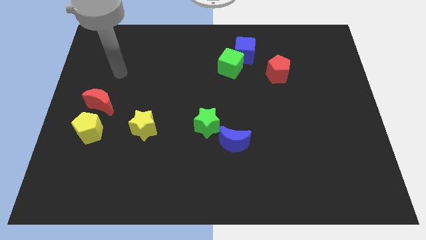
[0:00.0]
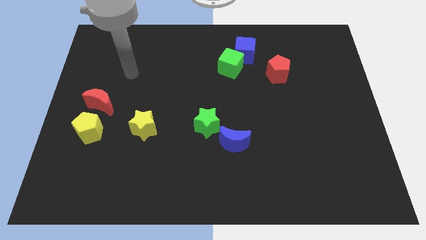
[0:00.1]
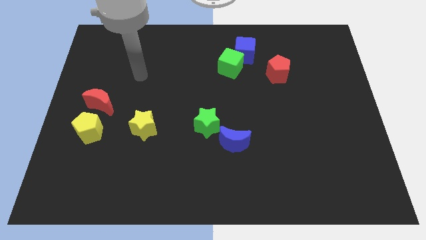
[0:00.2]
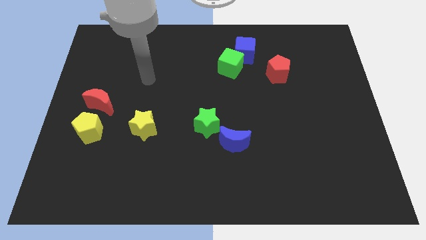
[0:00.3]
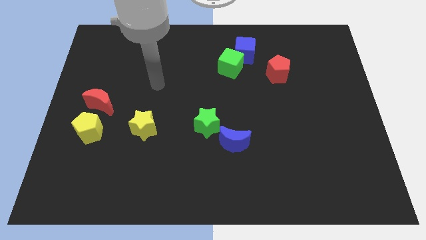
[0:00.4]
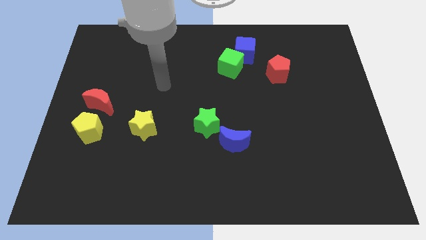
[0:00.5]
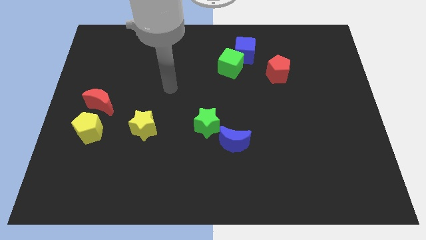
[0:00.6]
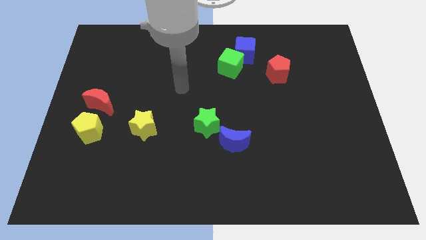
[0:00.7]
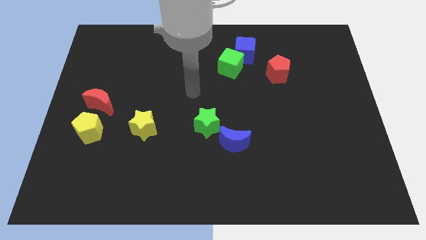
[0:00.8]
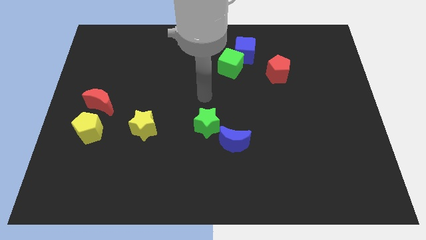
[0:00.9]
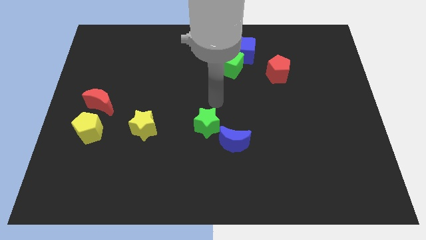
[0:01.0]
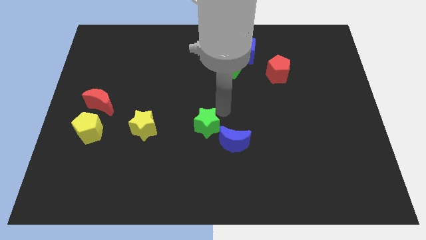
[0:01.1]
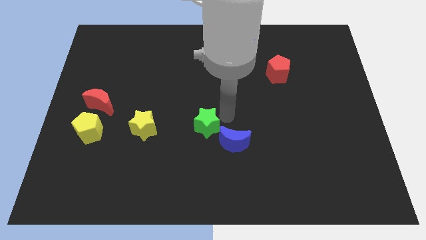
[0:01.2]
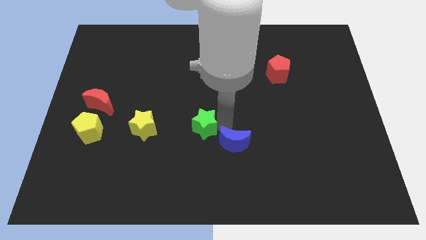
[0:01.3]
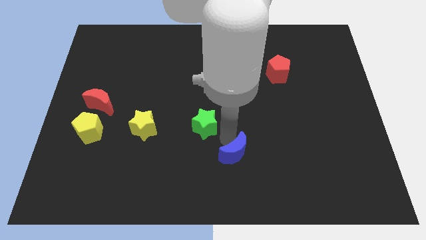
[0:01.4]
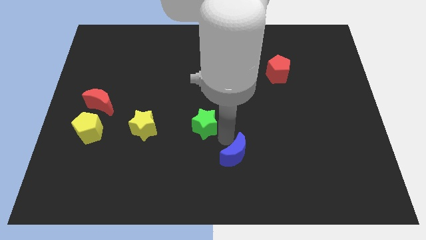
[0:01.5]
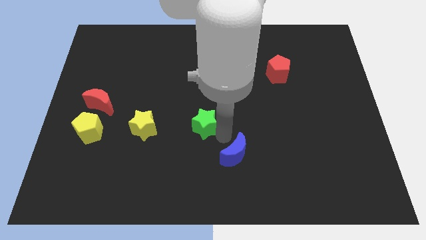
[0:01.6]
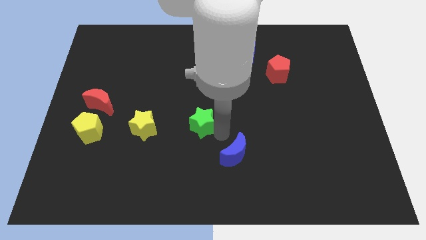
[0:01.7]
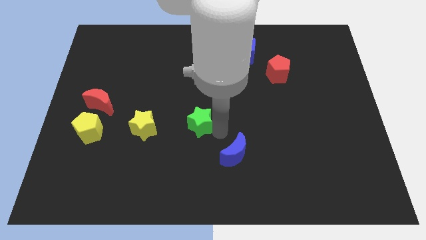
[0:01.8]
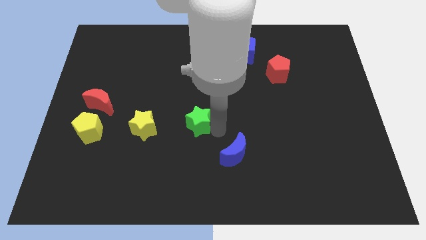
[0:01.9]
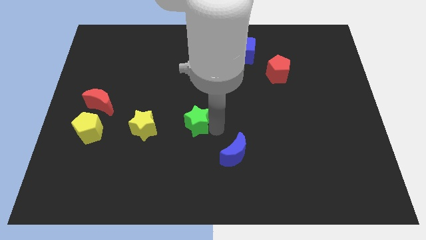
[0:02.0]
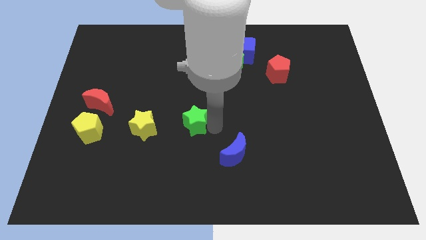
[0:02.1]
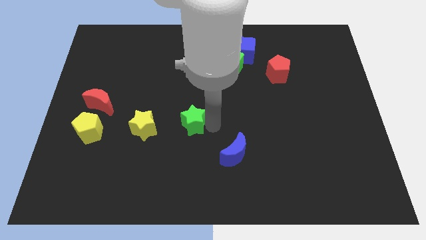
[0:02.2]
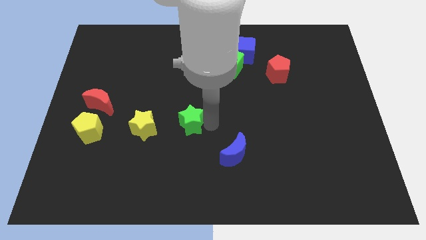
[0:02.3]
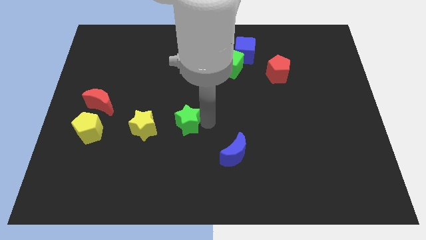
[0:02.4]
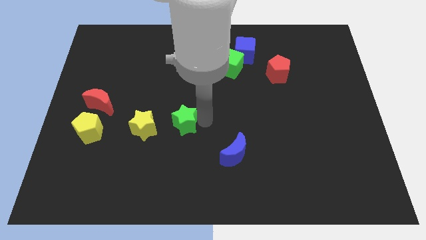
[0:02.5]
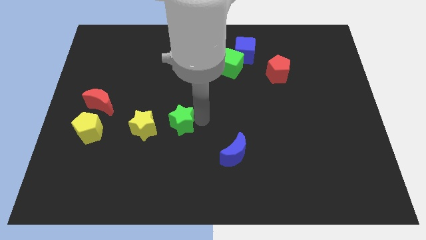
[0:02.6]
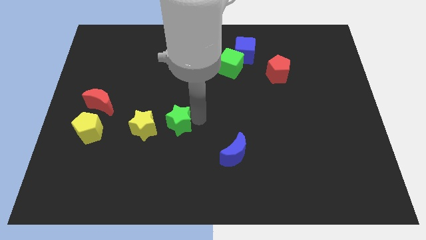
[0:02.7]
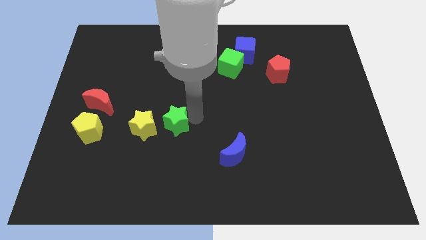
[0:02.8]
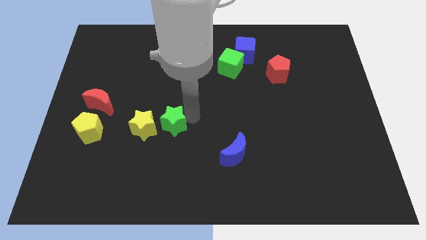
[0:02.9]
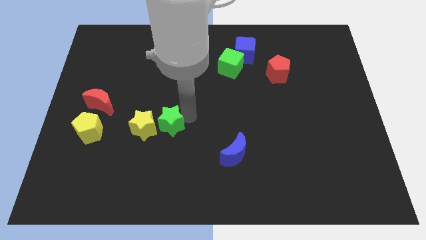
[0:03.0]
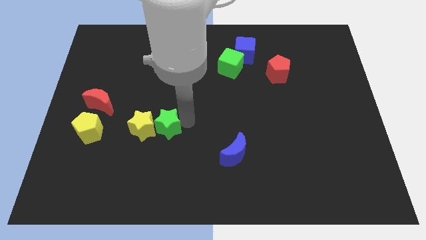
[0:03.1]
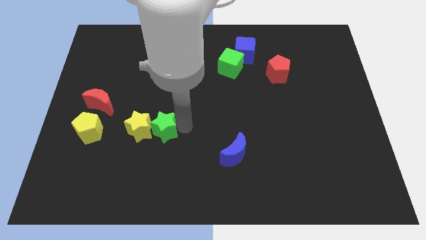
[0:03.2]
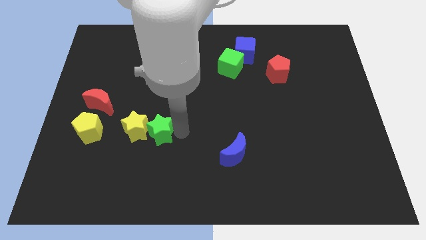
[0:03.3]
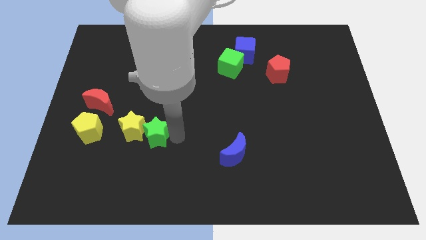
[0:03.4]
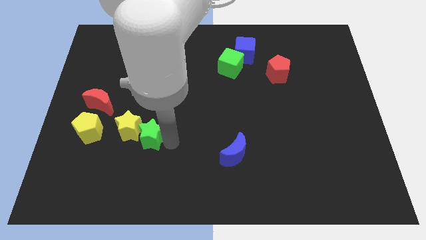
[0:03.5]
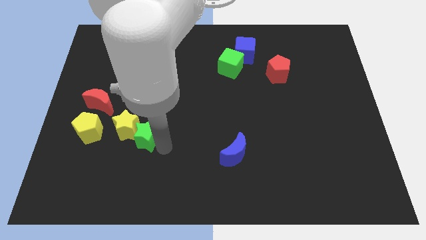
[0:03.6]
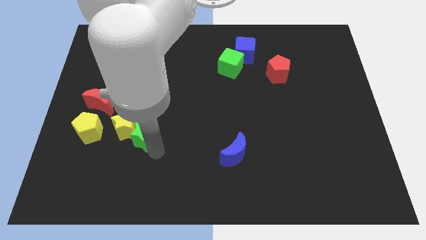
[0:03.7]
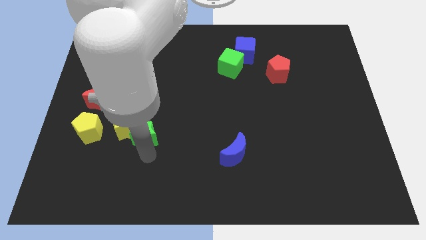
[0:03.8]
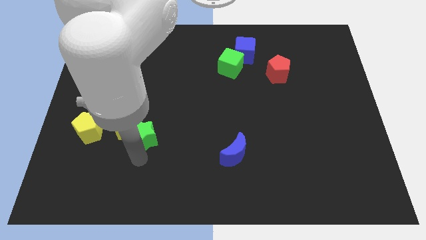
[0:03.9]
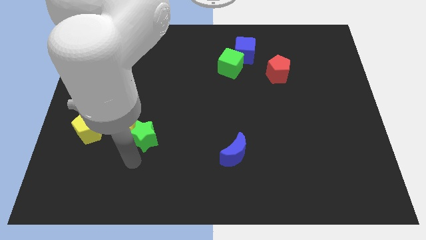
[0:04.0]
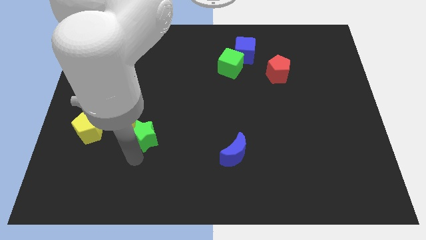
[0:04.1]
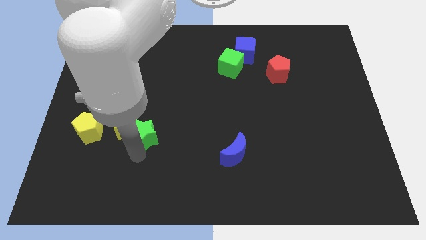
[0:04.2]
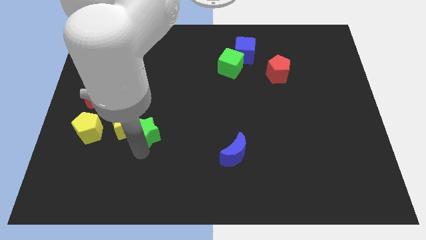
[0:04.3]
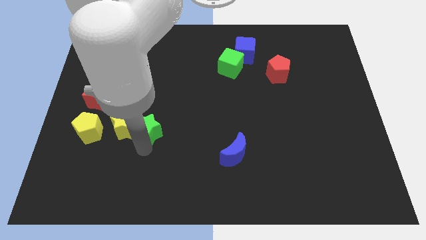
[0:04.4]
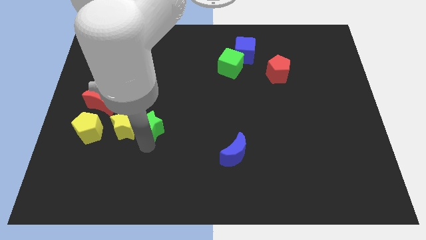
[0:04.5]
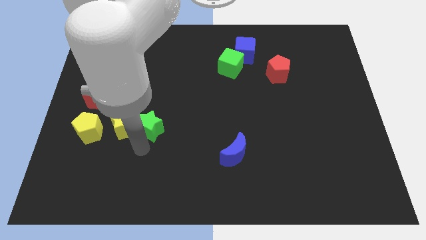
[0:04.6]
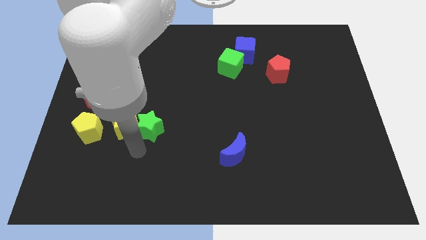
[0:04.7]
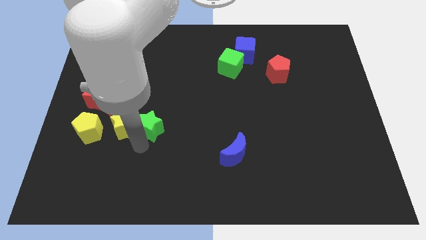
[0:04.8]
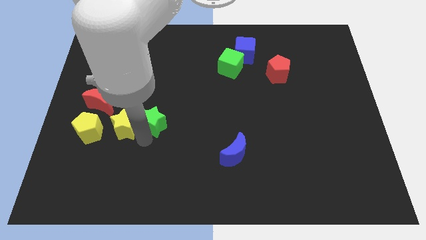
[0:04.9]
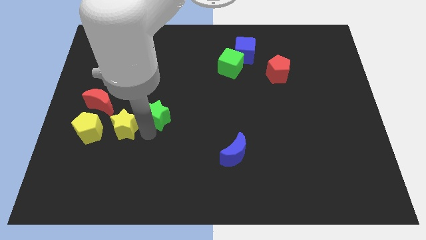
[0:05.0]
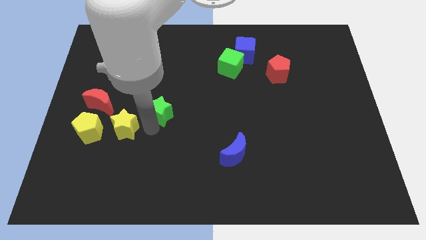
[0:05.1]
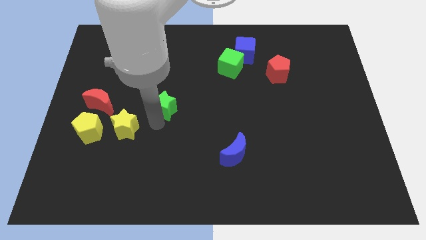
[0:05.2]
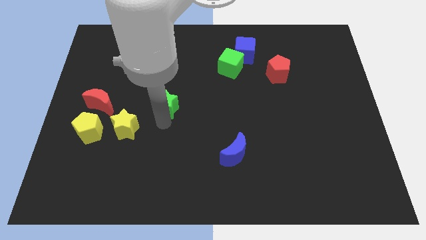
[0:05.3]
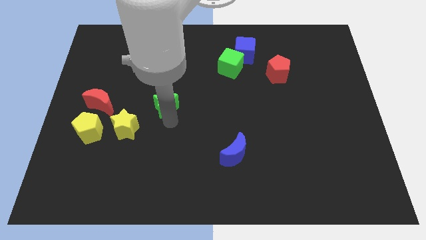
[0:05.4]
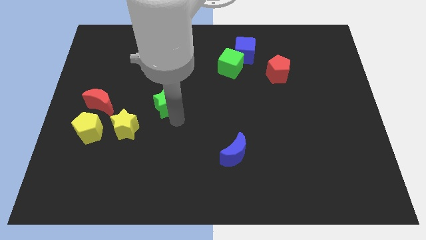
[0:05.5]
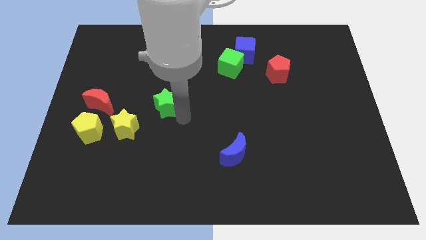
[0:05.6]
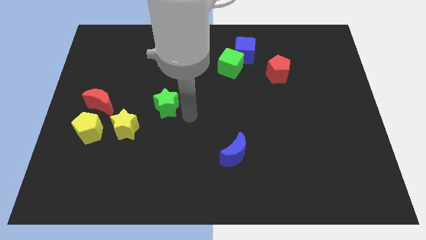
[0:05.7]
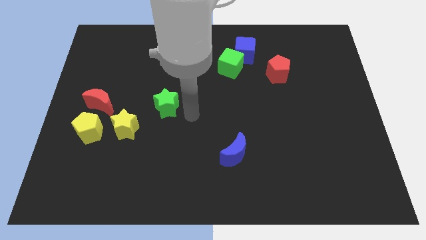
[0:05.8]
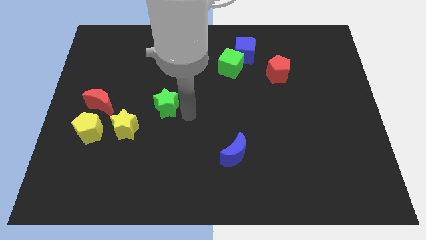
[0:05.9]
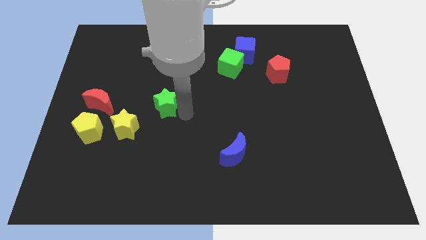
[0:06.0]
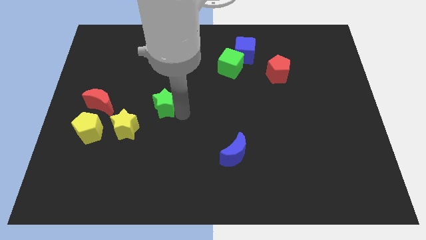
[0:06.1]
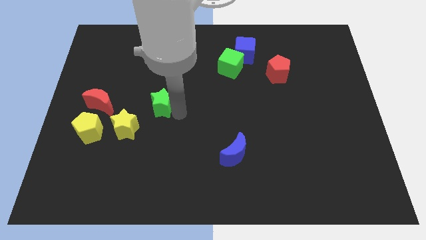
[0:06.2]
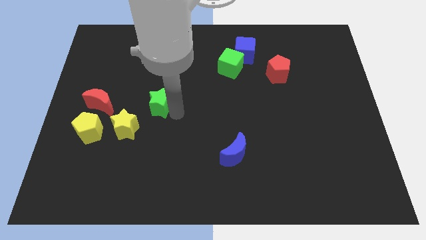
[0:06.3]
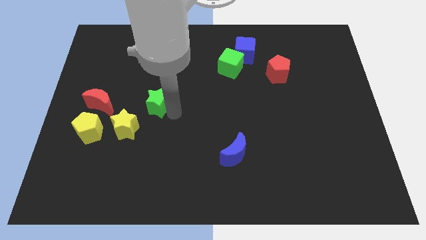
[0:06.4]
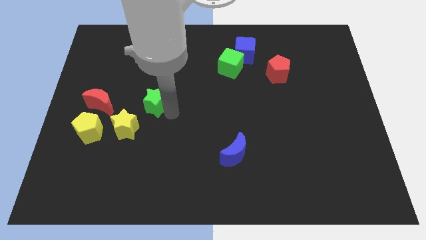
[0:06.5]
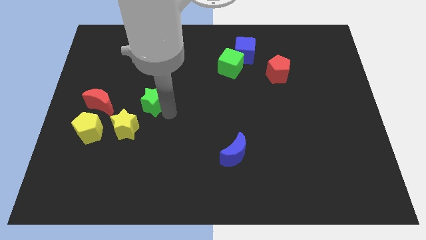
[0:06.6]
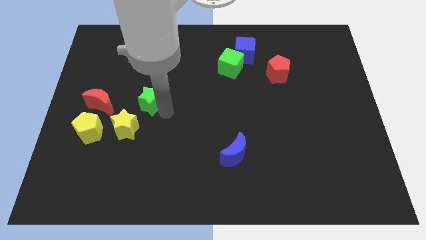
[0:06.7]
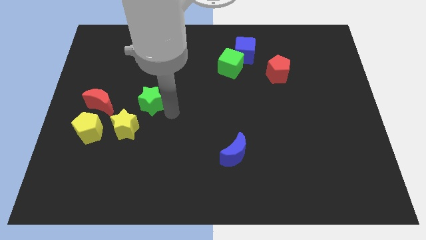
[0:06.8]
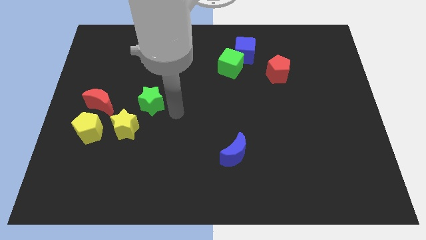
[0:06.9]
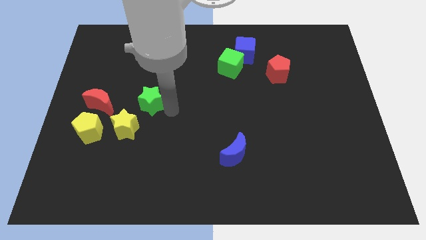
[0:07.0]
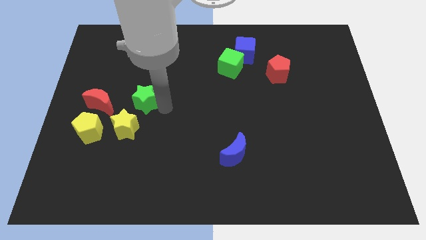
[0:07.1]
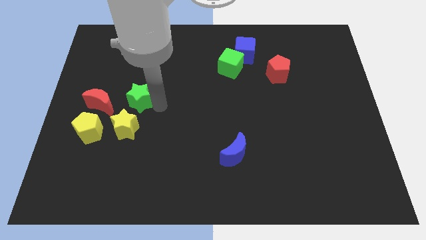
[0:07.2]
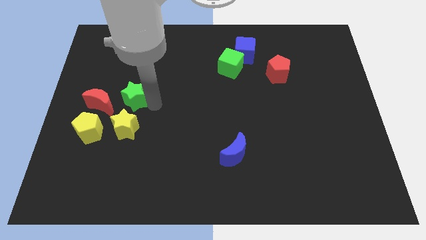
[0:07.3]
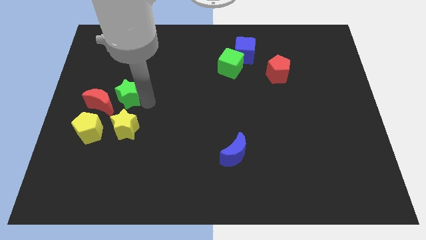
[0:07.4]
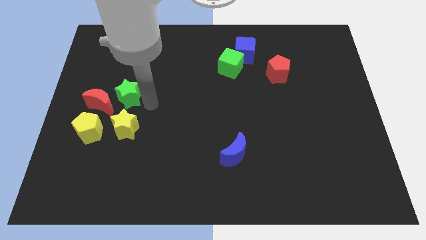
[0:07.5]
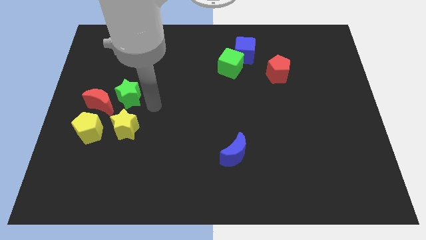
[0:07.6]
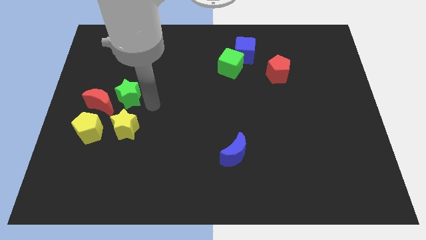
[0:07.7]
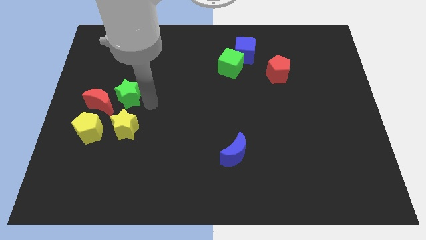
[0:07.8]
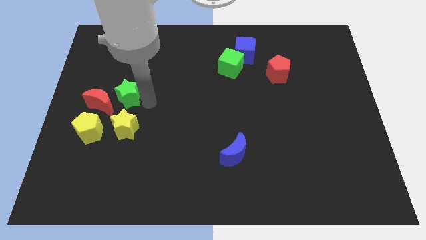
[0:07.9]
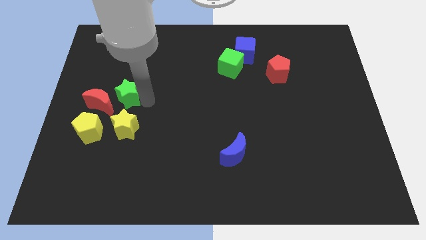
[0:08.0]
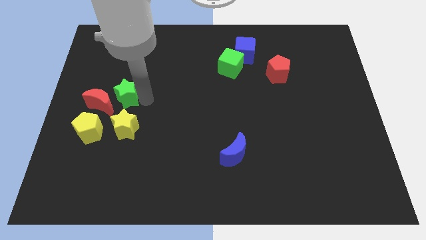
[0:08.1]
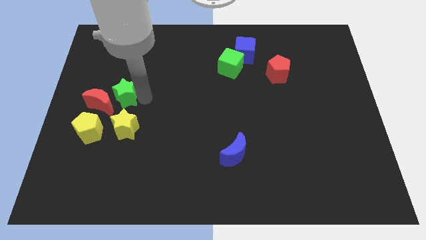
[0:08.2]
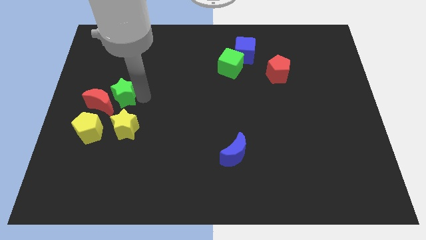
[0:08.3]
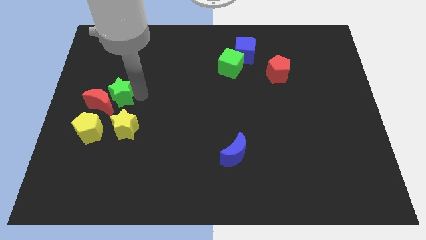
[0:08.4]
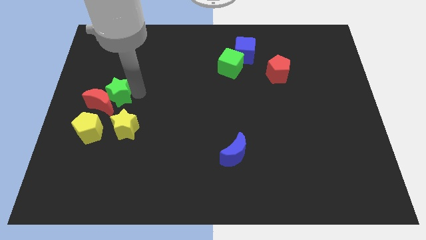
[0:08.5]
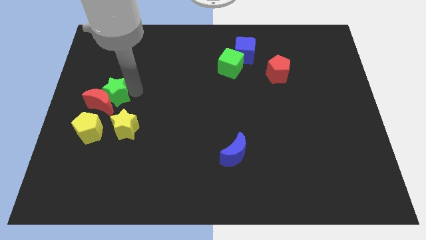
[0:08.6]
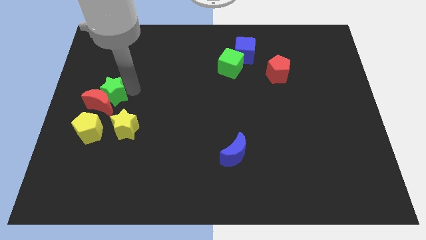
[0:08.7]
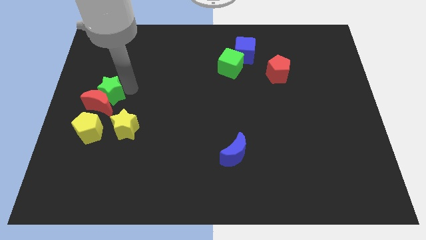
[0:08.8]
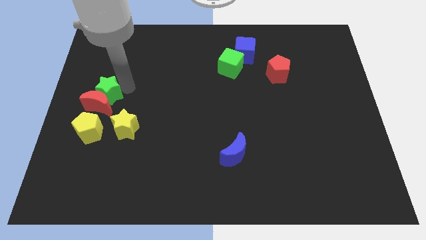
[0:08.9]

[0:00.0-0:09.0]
push the green star to the center left
